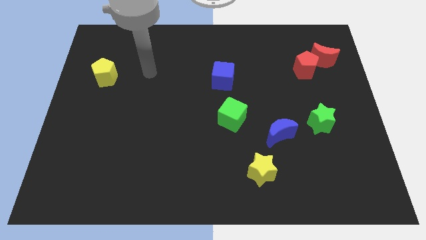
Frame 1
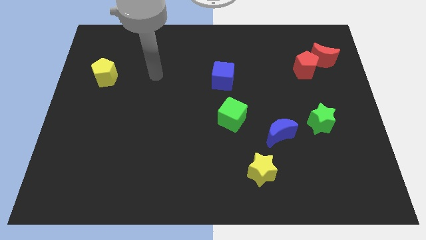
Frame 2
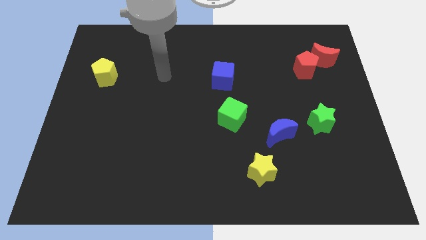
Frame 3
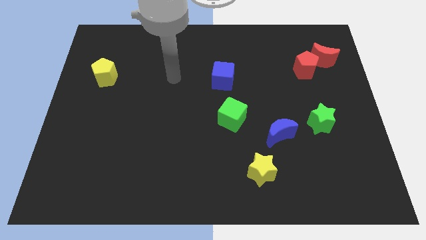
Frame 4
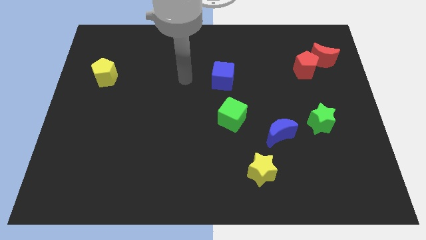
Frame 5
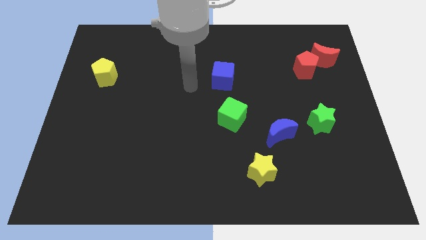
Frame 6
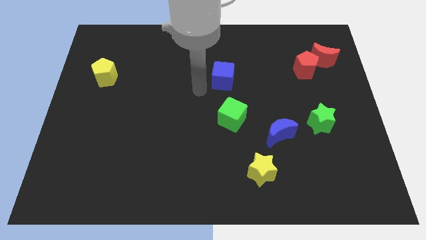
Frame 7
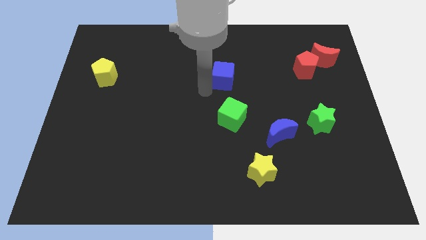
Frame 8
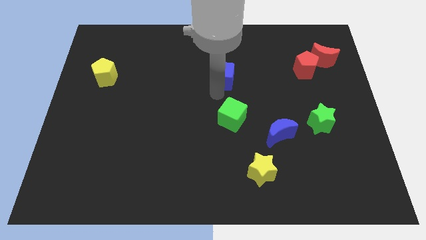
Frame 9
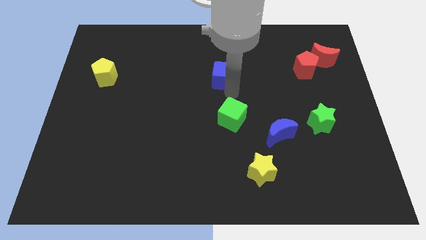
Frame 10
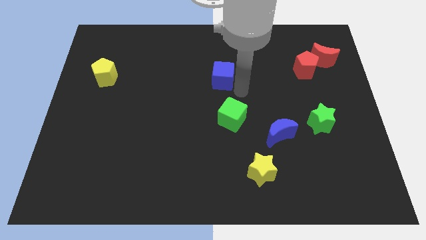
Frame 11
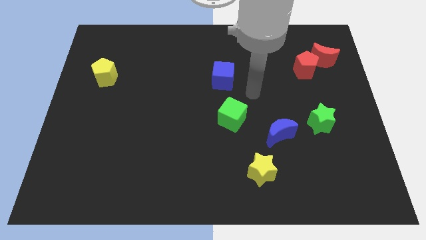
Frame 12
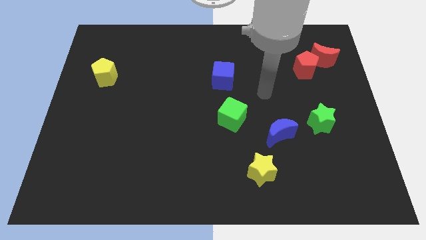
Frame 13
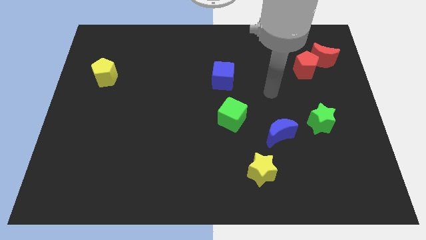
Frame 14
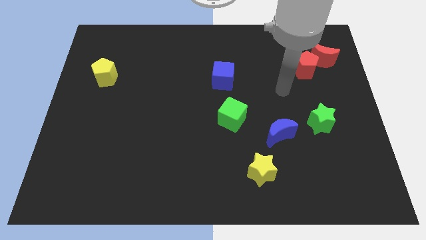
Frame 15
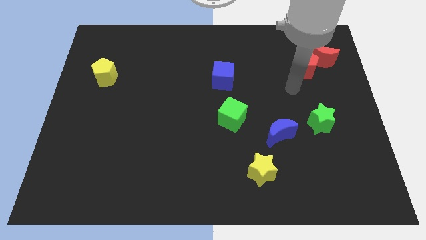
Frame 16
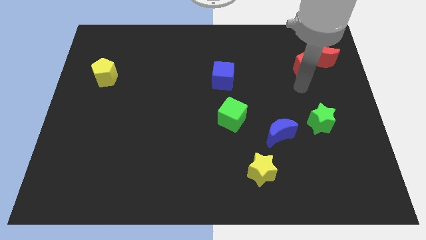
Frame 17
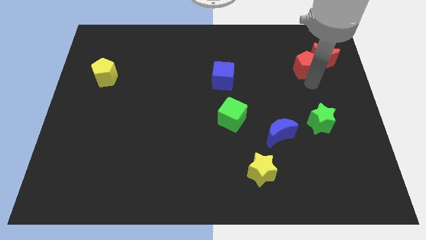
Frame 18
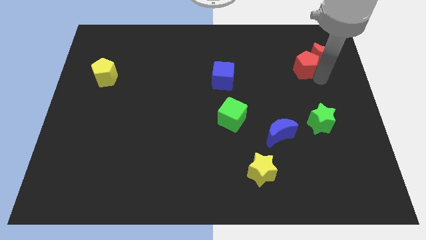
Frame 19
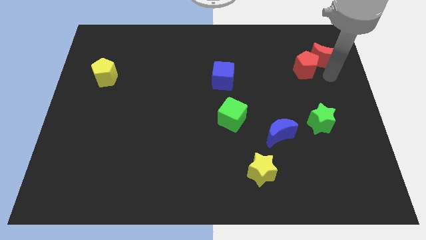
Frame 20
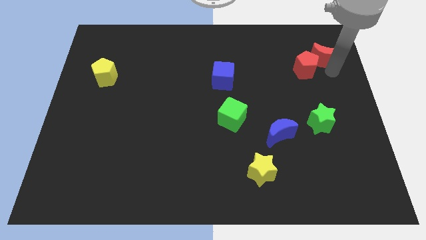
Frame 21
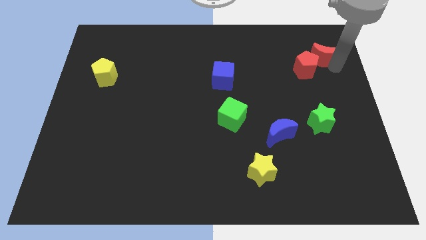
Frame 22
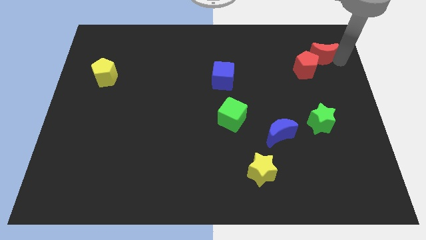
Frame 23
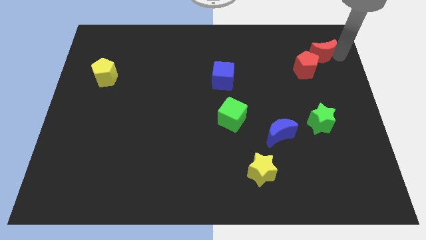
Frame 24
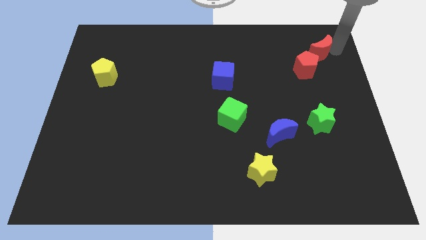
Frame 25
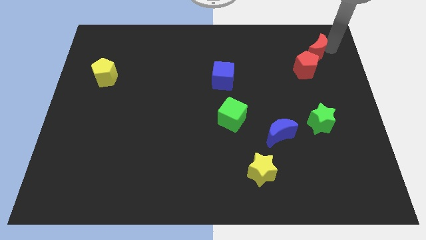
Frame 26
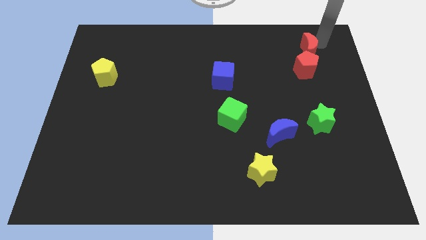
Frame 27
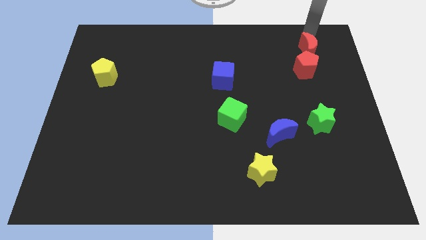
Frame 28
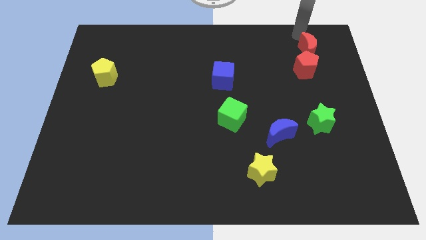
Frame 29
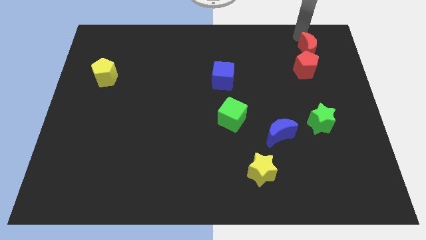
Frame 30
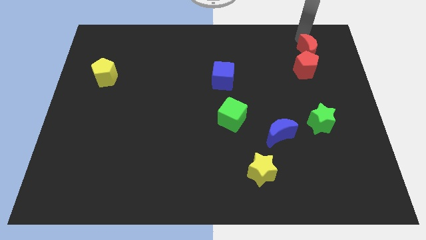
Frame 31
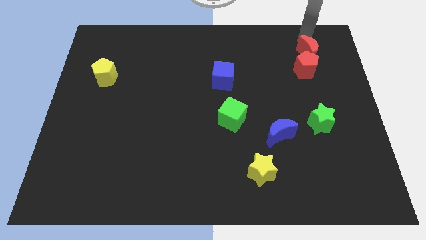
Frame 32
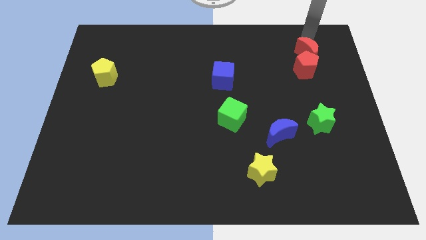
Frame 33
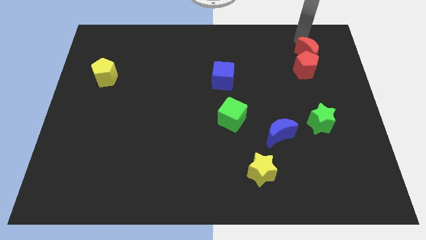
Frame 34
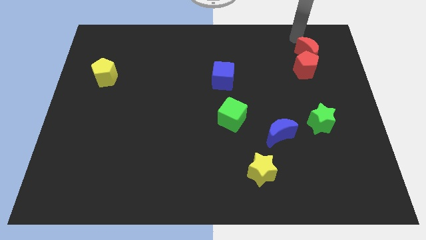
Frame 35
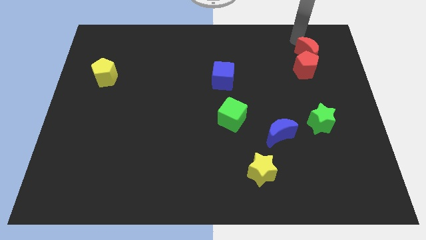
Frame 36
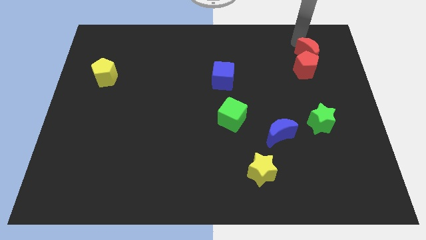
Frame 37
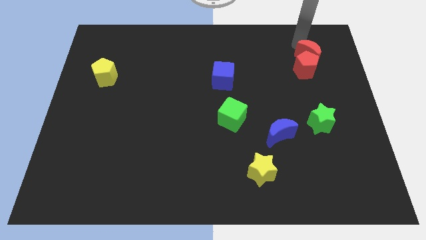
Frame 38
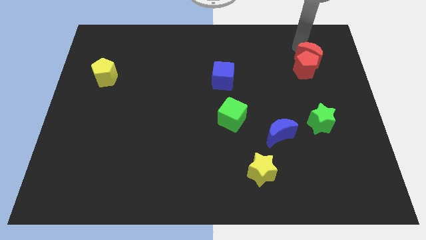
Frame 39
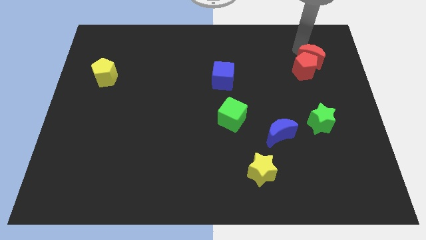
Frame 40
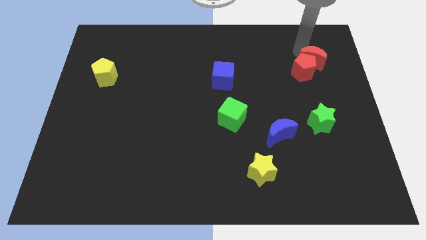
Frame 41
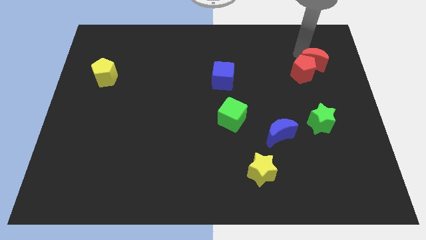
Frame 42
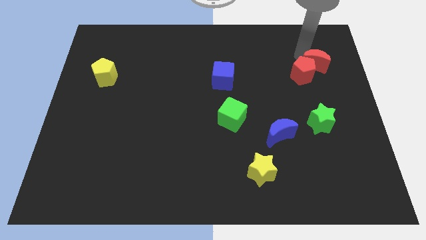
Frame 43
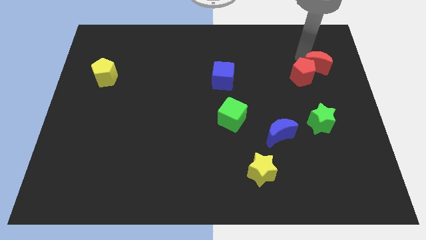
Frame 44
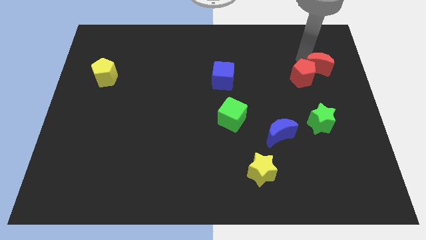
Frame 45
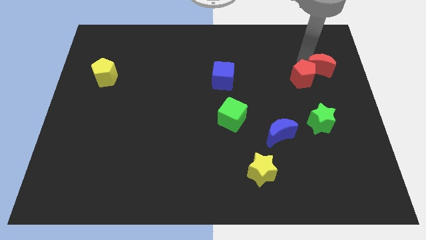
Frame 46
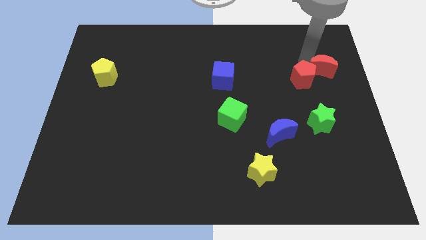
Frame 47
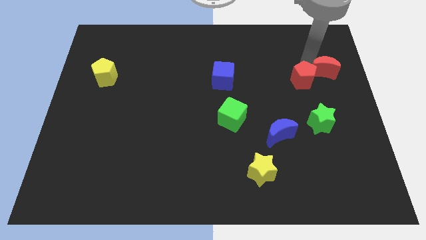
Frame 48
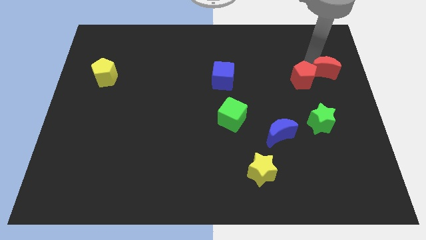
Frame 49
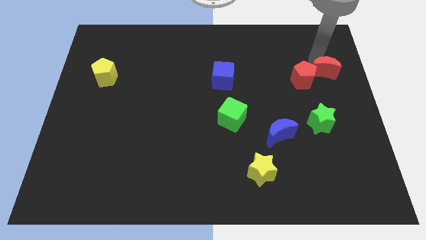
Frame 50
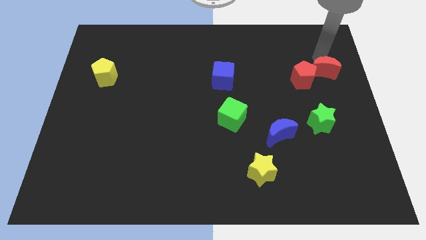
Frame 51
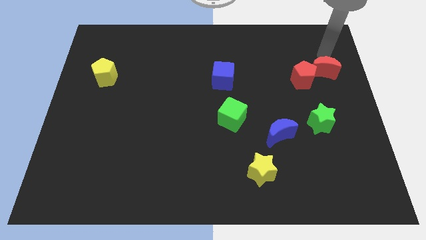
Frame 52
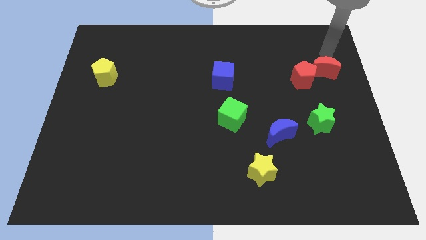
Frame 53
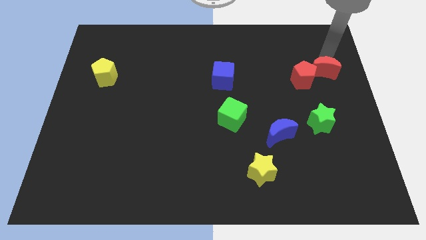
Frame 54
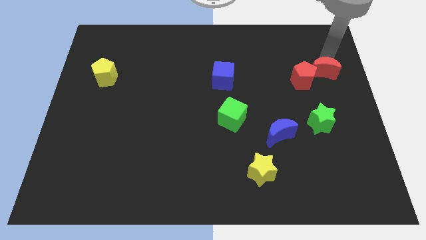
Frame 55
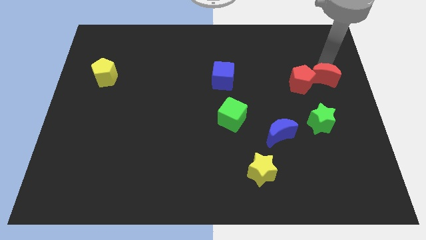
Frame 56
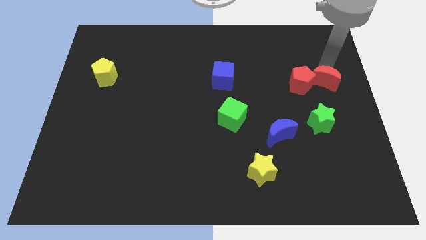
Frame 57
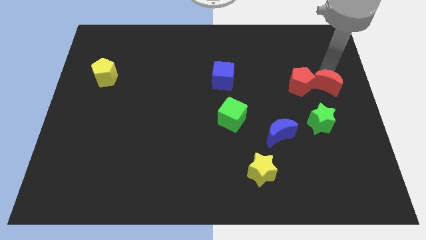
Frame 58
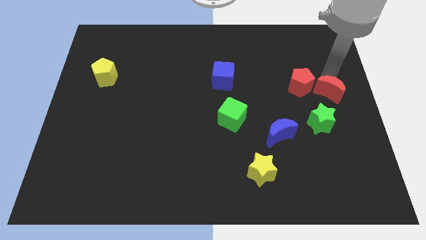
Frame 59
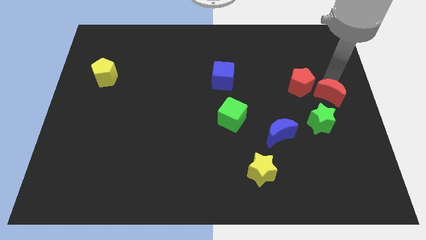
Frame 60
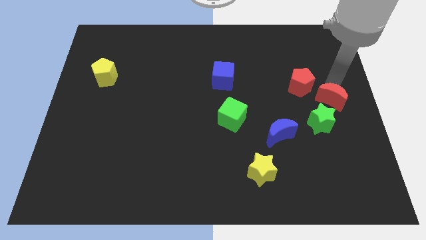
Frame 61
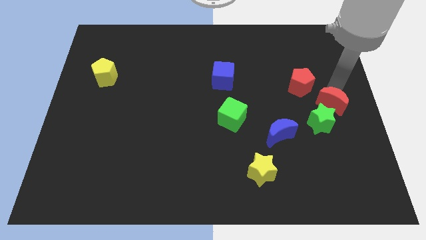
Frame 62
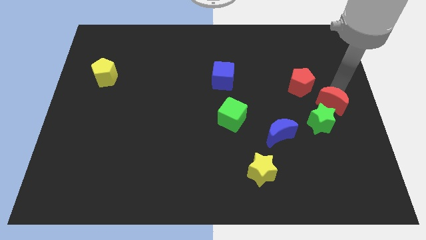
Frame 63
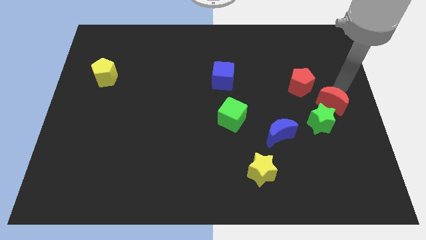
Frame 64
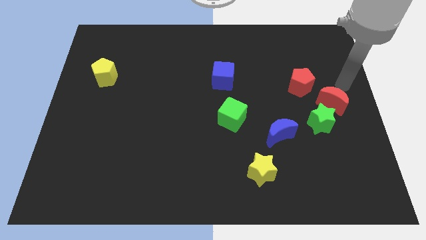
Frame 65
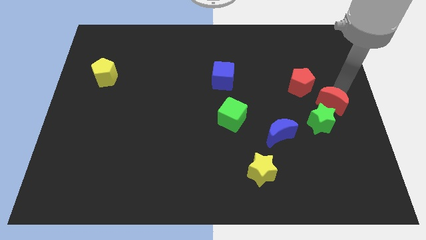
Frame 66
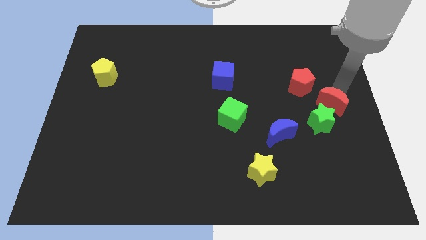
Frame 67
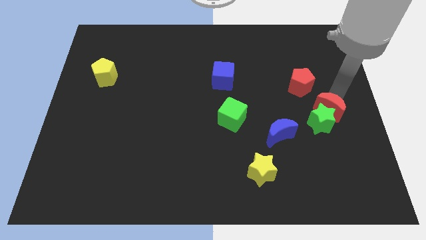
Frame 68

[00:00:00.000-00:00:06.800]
push the red moon next to the green star
